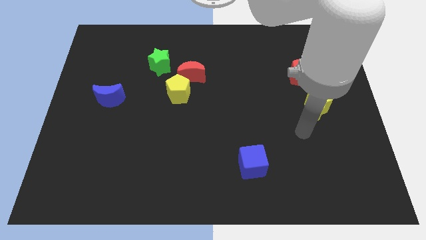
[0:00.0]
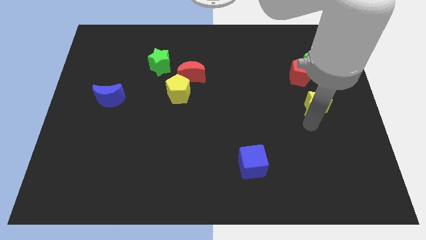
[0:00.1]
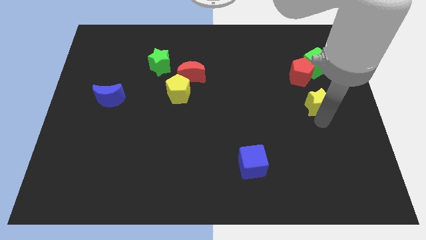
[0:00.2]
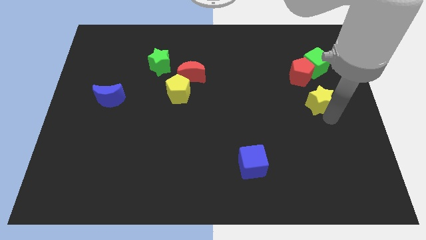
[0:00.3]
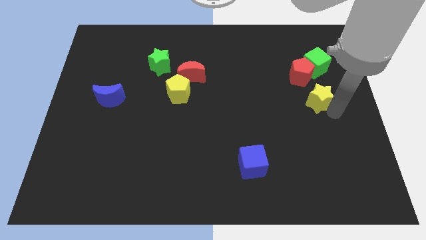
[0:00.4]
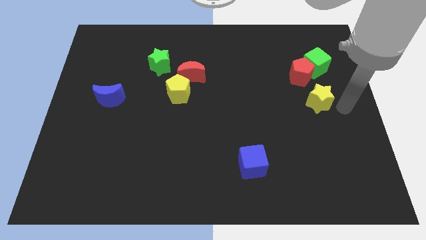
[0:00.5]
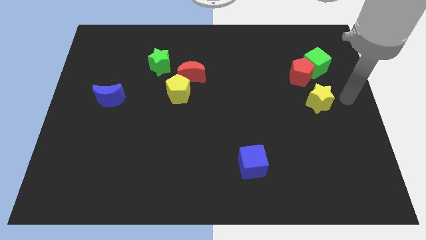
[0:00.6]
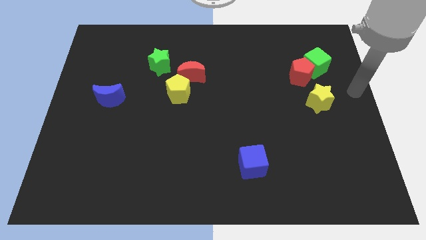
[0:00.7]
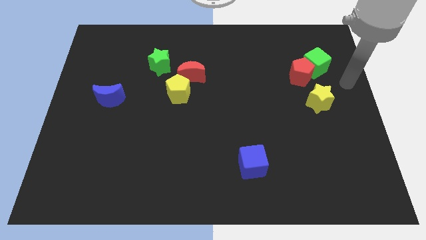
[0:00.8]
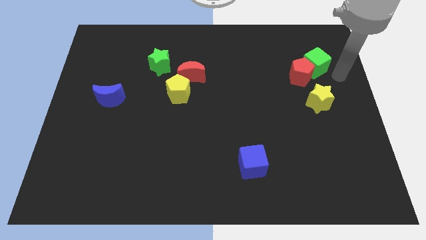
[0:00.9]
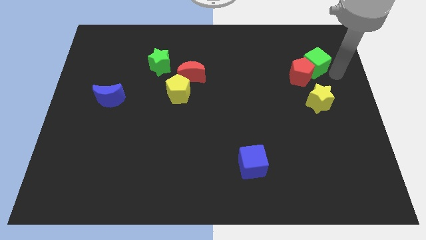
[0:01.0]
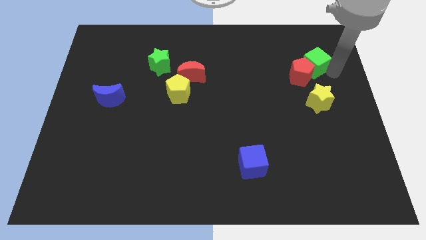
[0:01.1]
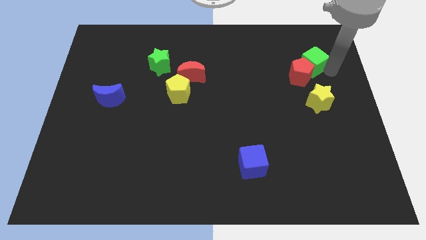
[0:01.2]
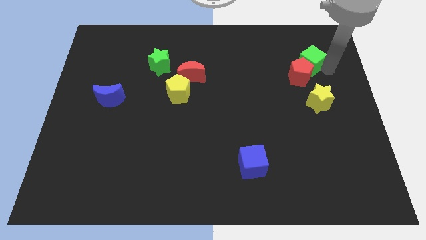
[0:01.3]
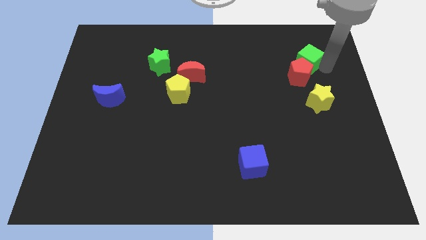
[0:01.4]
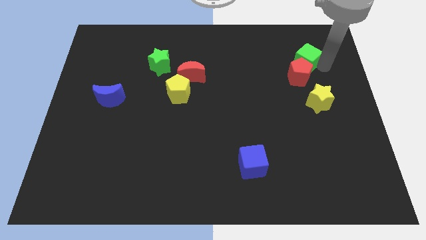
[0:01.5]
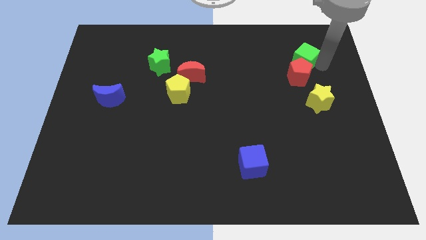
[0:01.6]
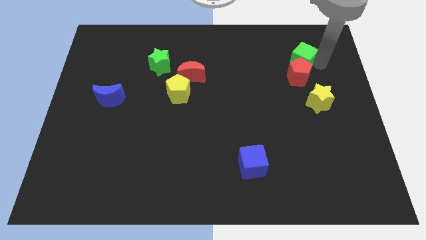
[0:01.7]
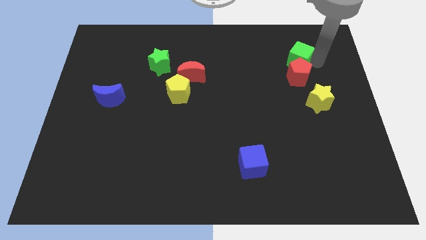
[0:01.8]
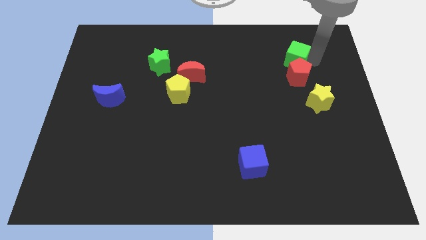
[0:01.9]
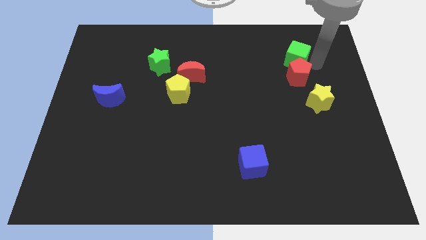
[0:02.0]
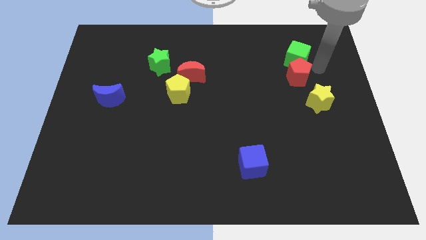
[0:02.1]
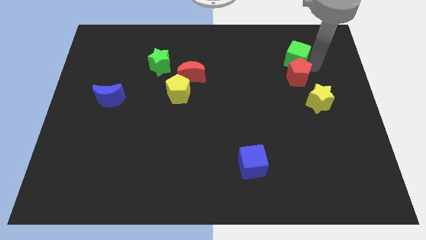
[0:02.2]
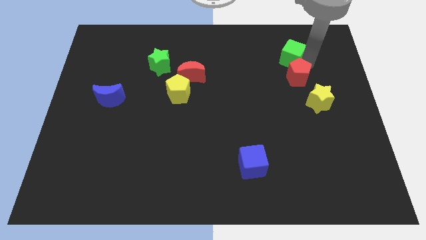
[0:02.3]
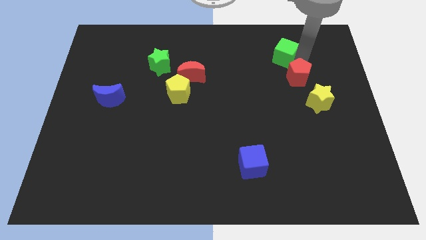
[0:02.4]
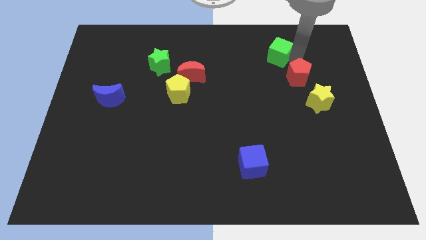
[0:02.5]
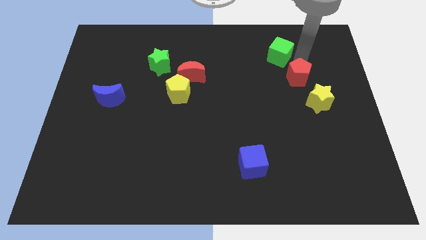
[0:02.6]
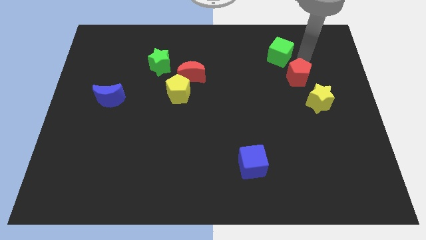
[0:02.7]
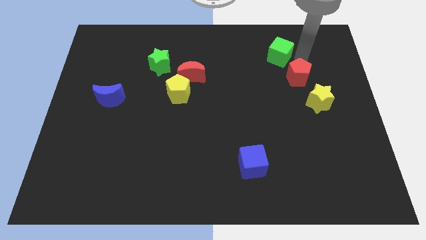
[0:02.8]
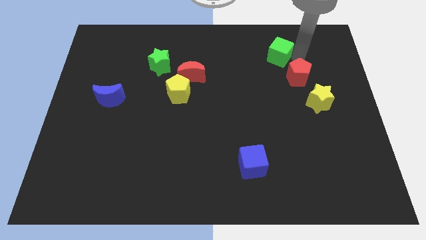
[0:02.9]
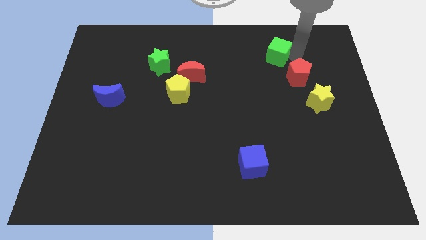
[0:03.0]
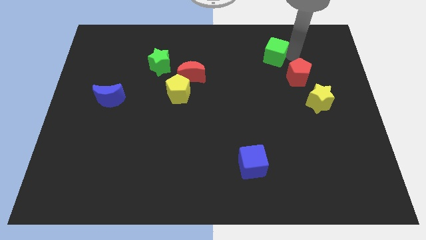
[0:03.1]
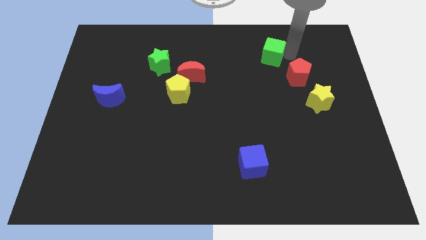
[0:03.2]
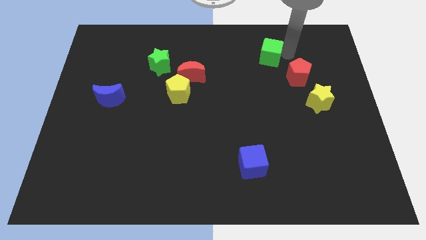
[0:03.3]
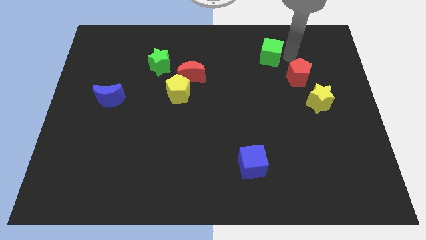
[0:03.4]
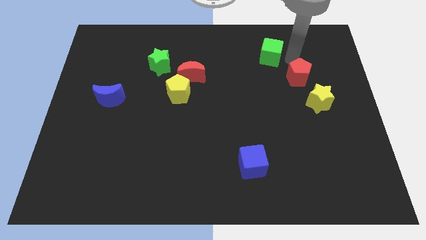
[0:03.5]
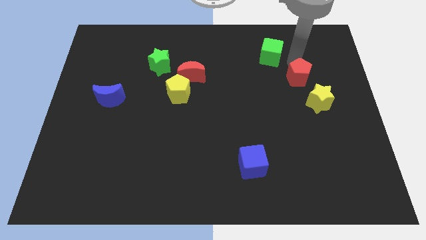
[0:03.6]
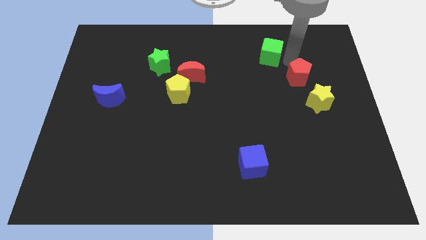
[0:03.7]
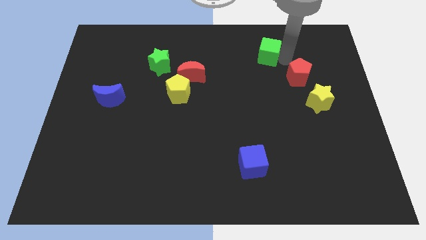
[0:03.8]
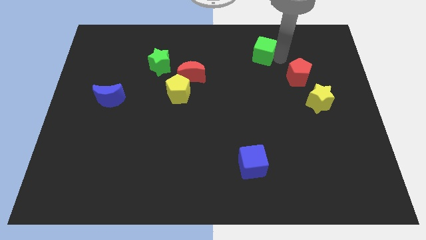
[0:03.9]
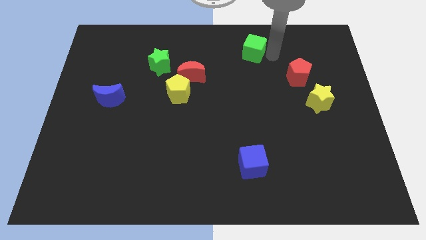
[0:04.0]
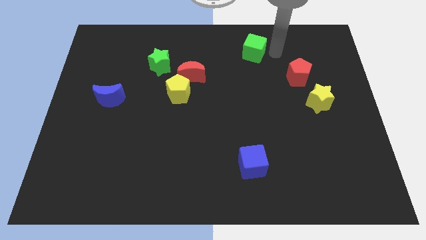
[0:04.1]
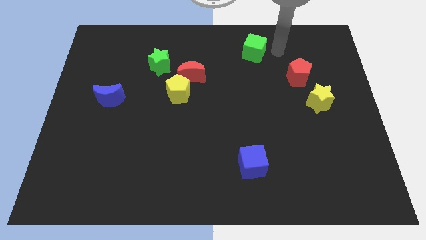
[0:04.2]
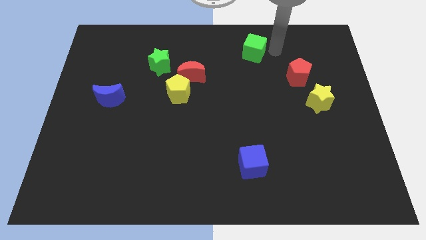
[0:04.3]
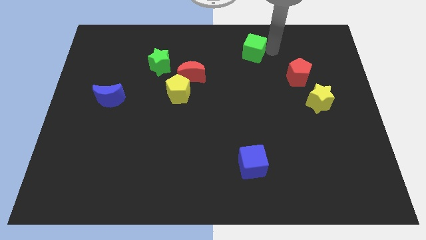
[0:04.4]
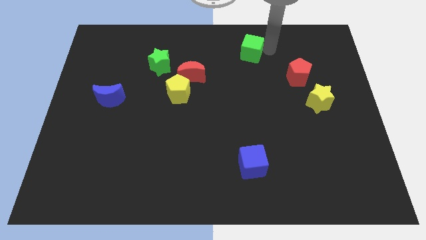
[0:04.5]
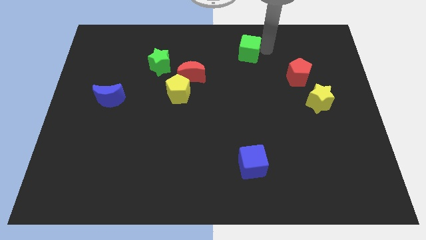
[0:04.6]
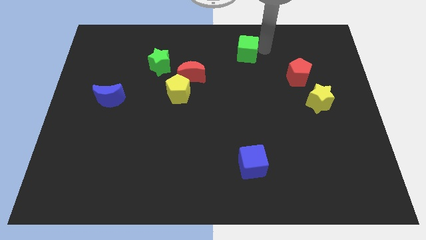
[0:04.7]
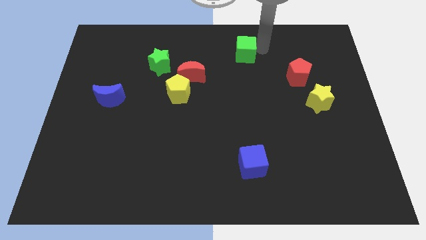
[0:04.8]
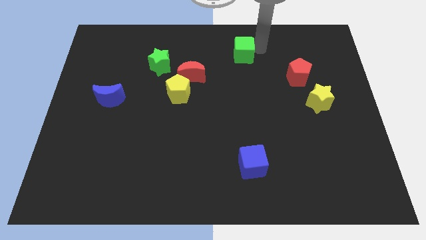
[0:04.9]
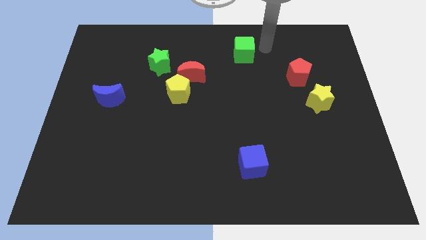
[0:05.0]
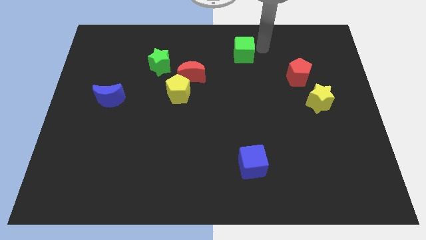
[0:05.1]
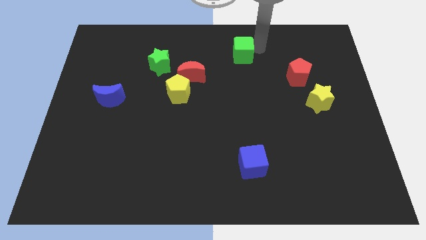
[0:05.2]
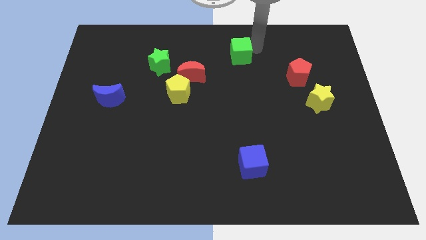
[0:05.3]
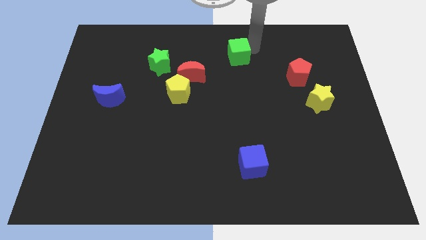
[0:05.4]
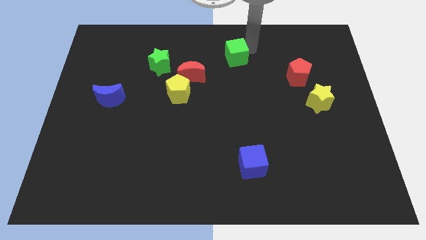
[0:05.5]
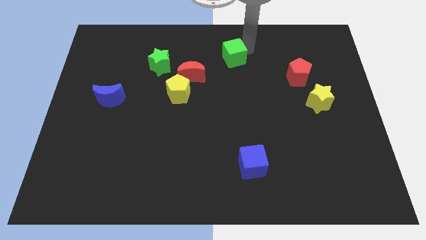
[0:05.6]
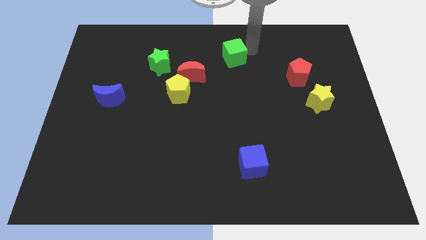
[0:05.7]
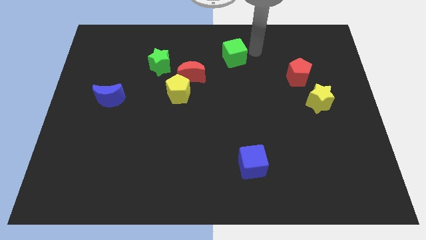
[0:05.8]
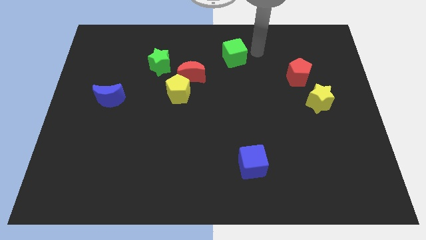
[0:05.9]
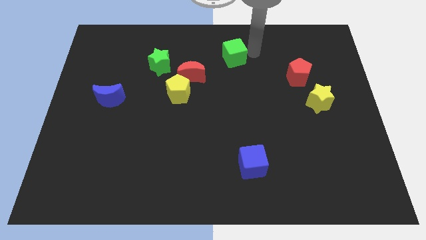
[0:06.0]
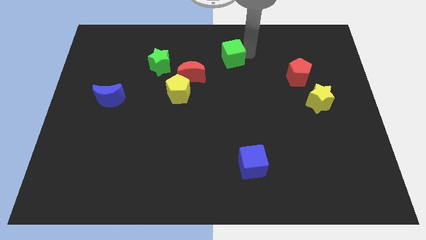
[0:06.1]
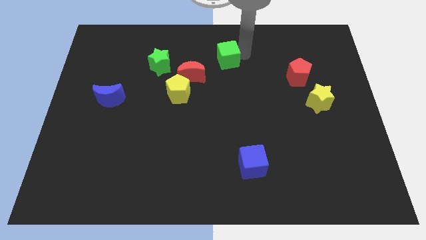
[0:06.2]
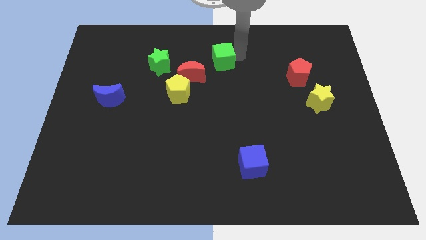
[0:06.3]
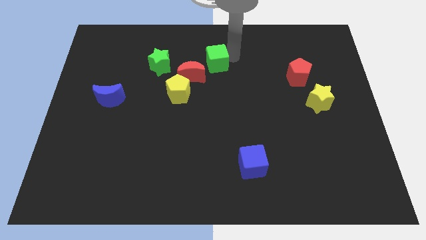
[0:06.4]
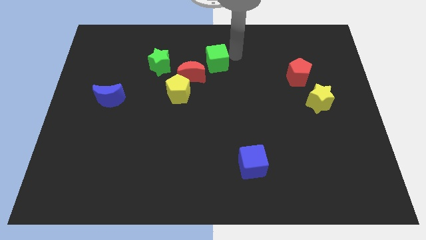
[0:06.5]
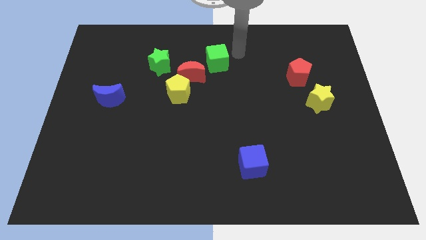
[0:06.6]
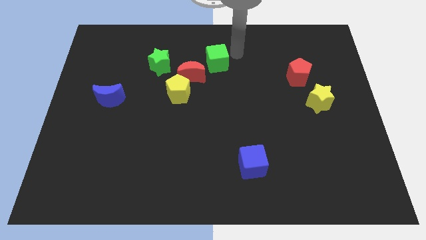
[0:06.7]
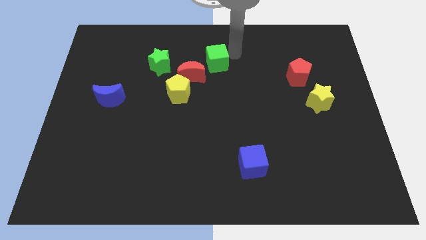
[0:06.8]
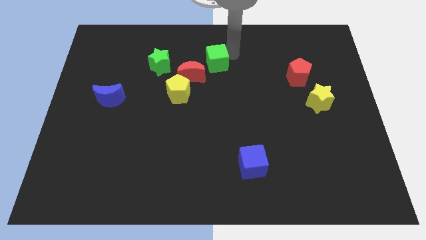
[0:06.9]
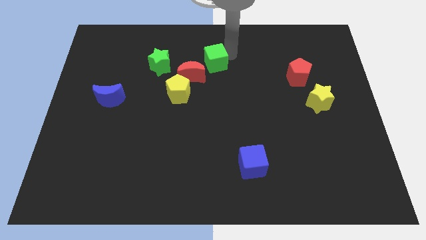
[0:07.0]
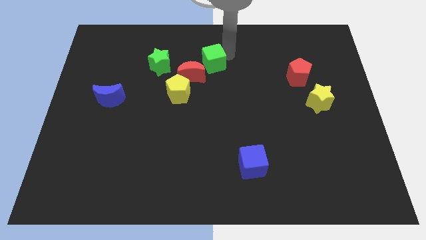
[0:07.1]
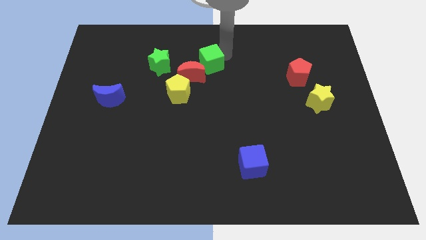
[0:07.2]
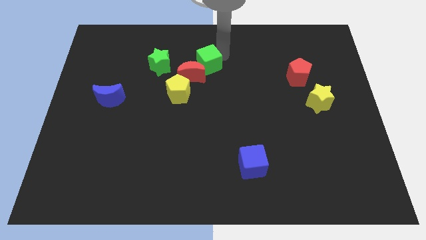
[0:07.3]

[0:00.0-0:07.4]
slide the green cube to the red moon
